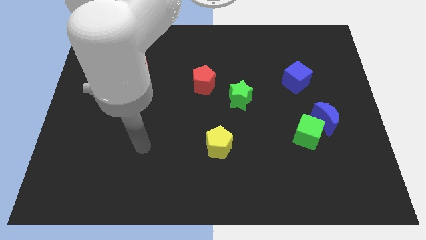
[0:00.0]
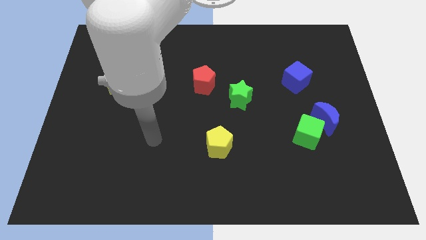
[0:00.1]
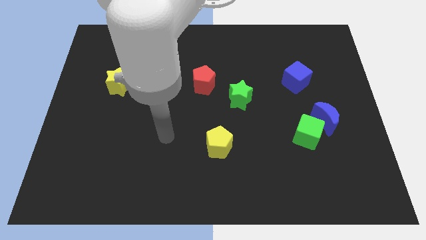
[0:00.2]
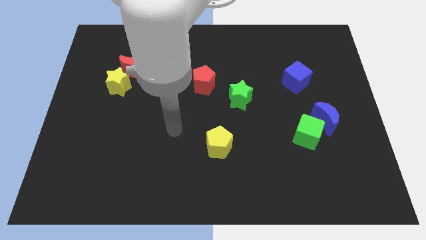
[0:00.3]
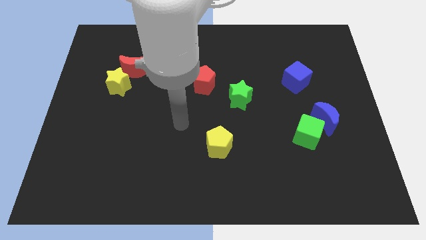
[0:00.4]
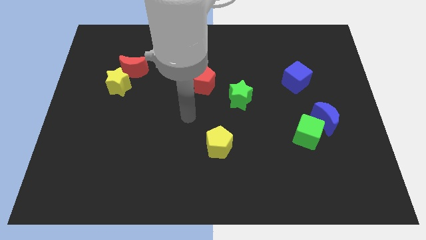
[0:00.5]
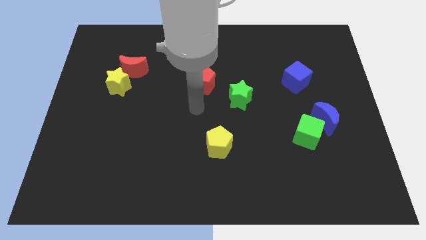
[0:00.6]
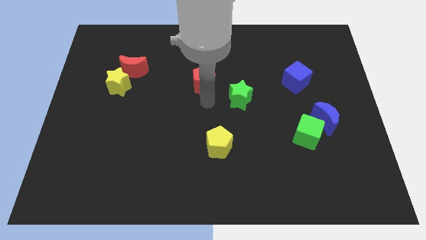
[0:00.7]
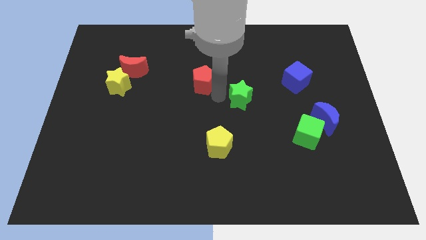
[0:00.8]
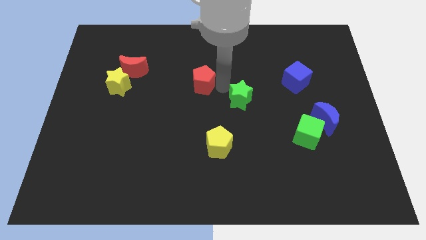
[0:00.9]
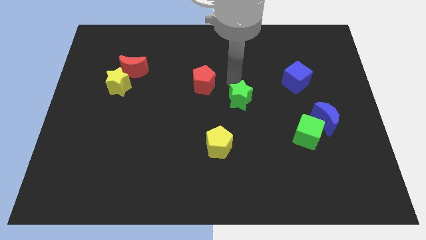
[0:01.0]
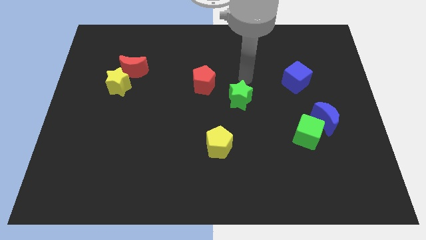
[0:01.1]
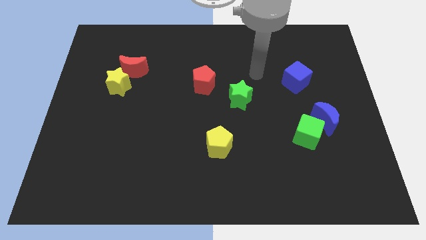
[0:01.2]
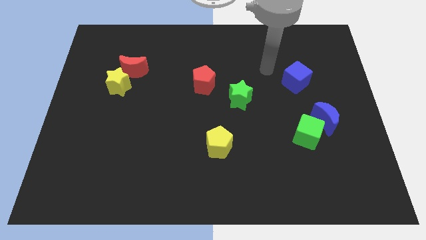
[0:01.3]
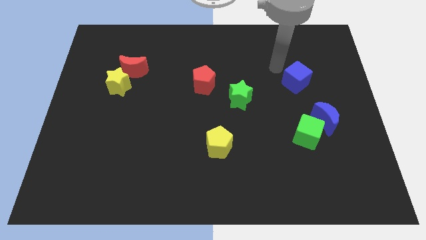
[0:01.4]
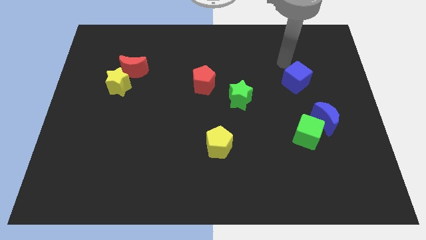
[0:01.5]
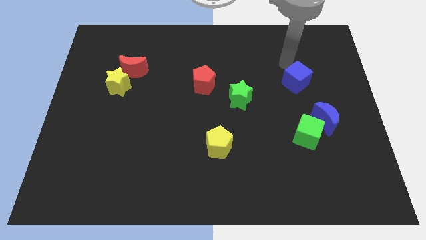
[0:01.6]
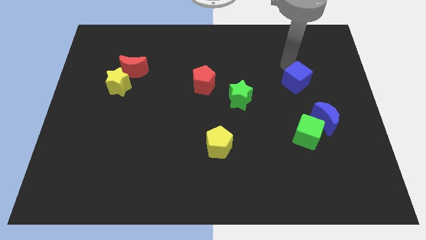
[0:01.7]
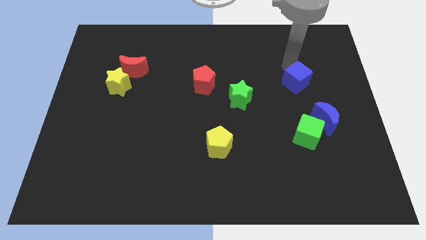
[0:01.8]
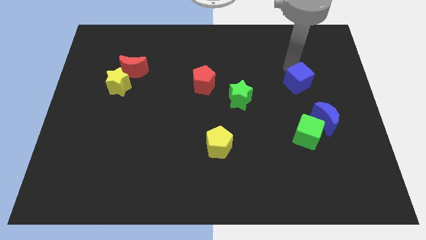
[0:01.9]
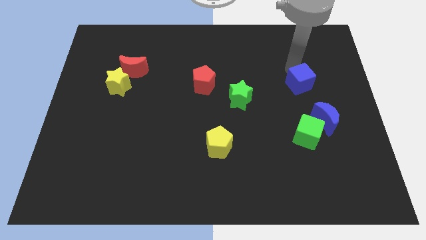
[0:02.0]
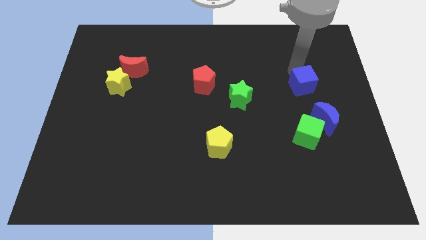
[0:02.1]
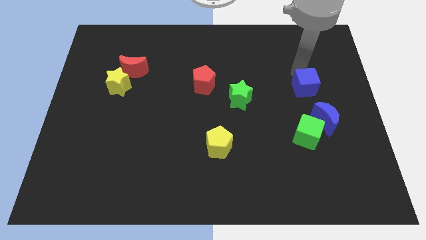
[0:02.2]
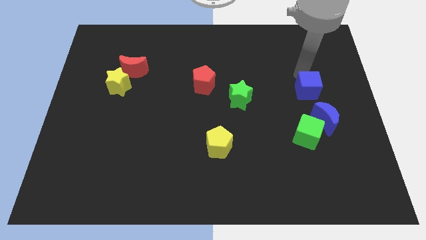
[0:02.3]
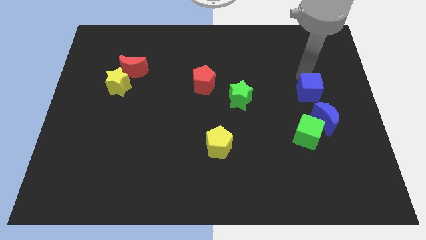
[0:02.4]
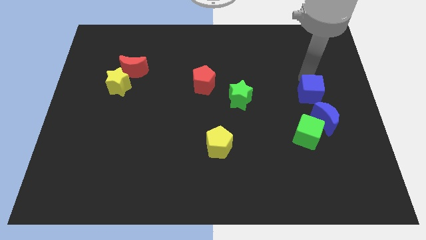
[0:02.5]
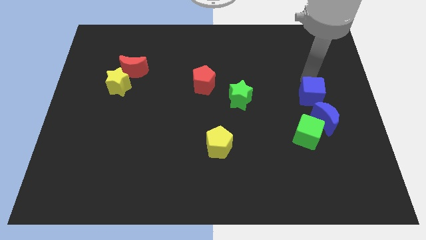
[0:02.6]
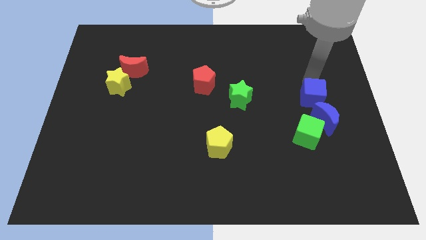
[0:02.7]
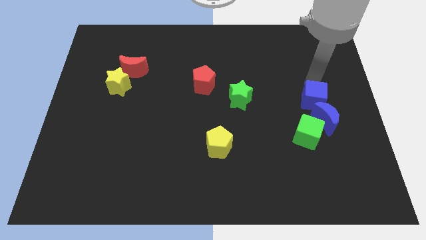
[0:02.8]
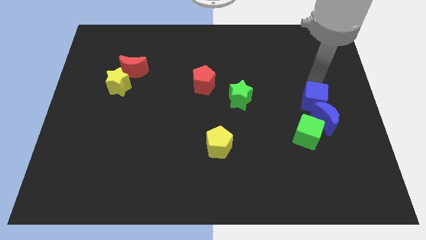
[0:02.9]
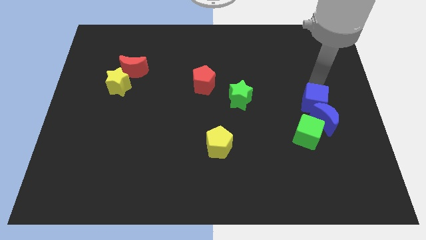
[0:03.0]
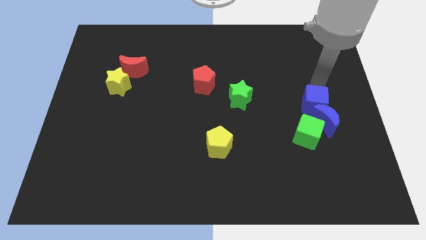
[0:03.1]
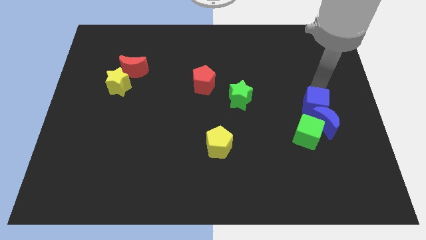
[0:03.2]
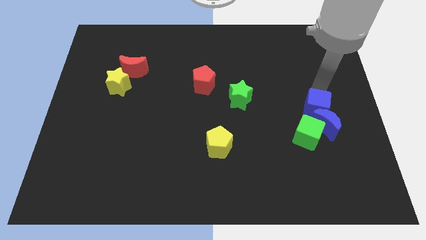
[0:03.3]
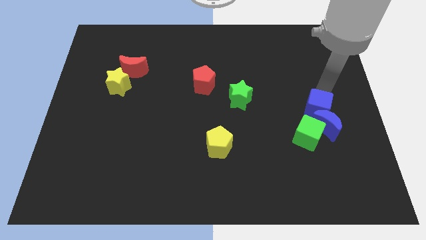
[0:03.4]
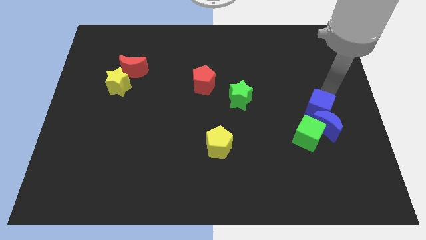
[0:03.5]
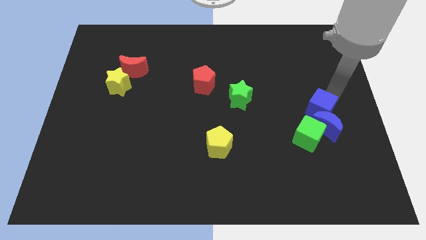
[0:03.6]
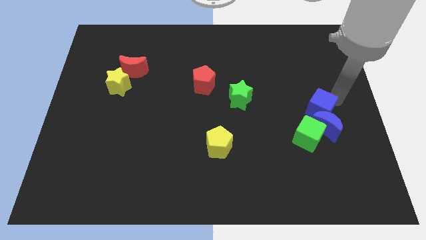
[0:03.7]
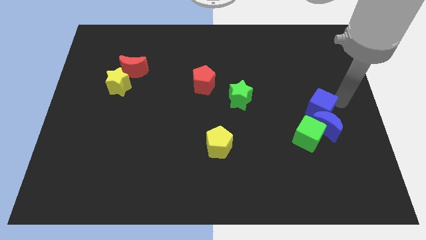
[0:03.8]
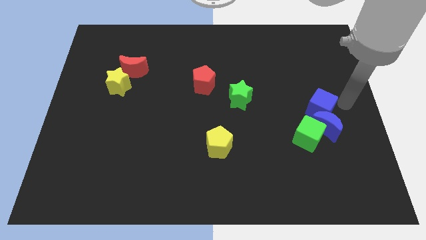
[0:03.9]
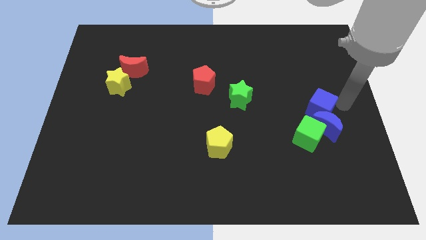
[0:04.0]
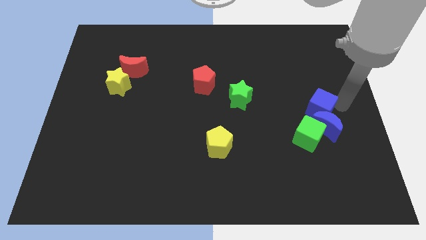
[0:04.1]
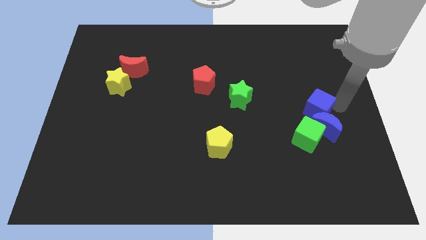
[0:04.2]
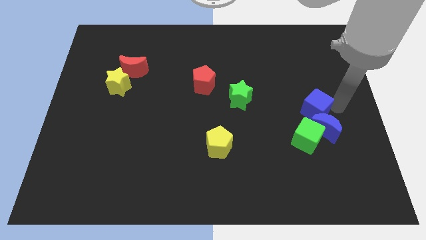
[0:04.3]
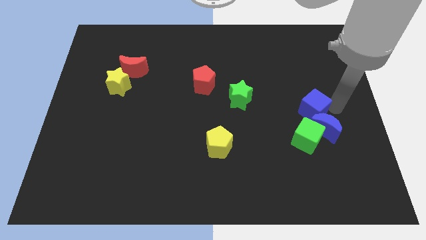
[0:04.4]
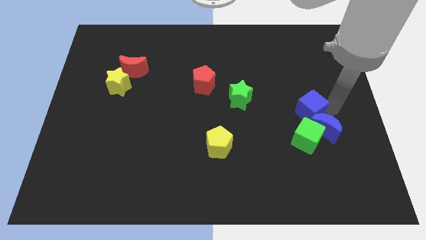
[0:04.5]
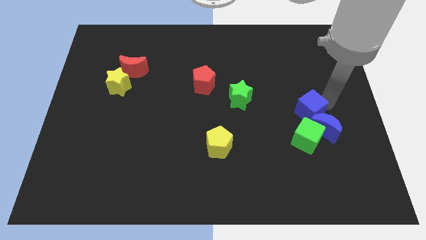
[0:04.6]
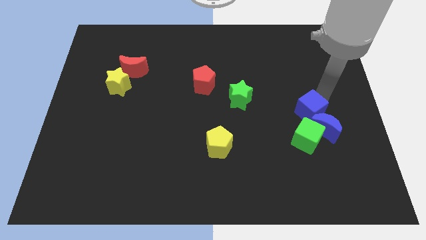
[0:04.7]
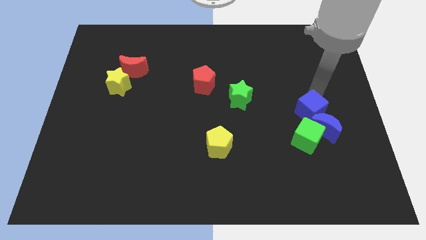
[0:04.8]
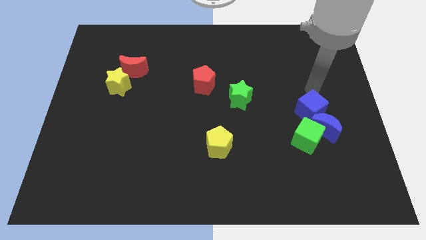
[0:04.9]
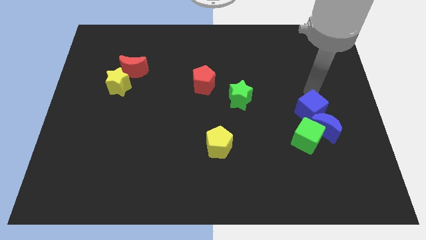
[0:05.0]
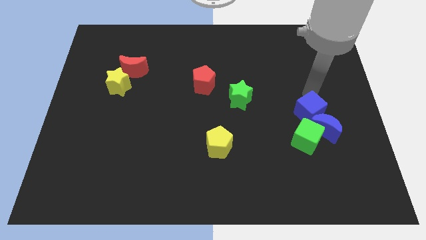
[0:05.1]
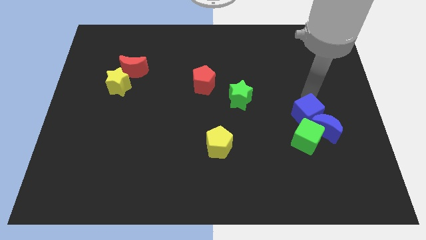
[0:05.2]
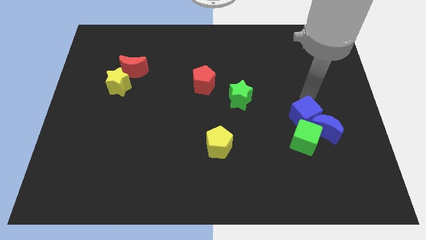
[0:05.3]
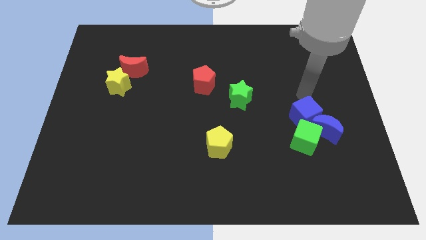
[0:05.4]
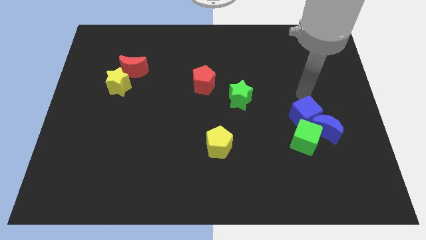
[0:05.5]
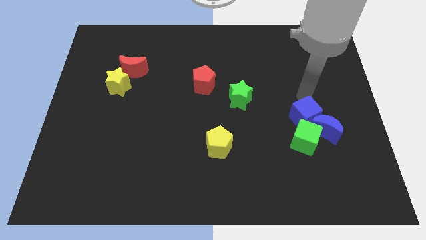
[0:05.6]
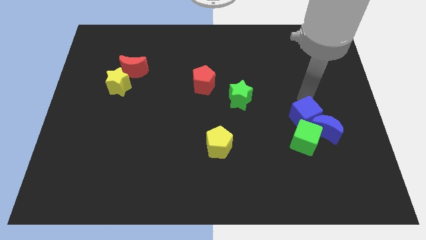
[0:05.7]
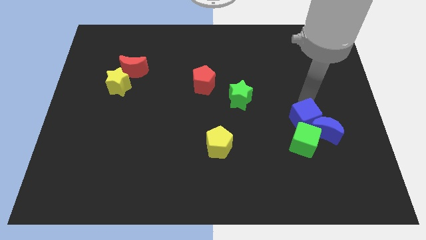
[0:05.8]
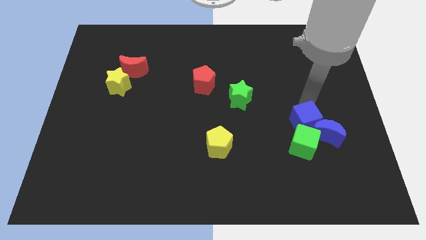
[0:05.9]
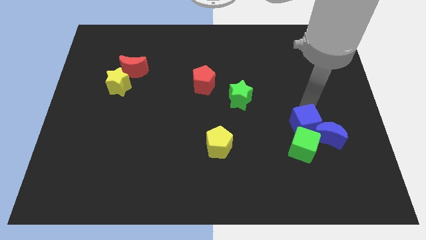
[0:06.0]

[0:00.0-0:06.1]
slide the blue cube next to the green cube

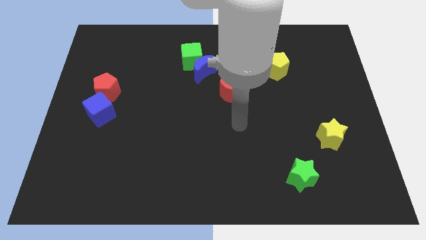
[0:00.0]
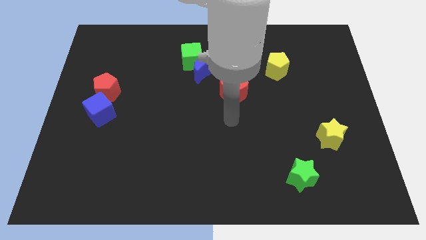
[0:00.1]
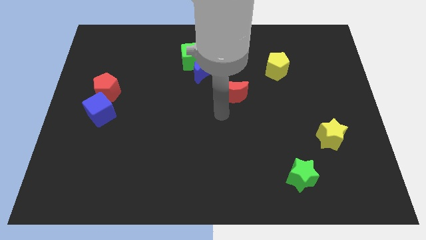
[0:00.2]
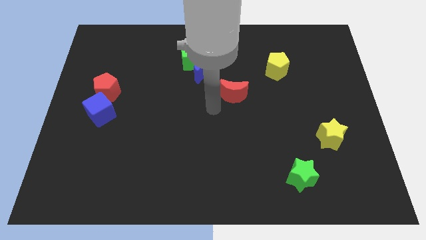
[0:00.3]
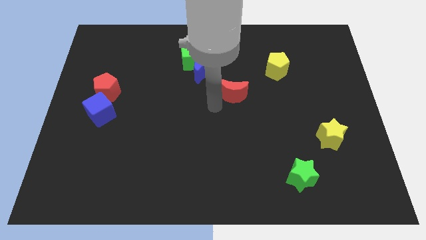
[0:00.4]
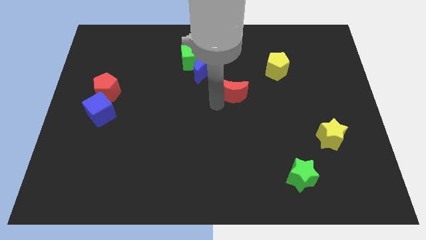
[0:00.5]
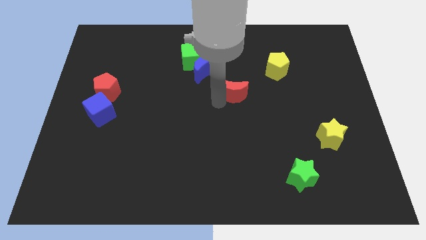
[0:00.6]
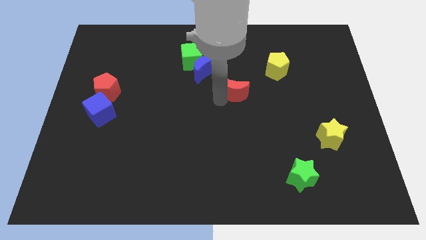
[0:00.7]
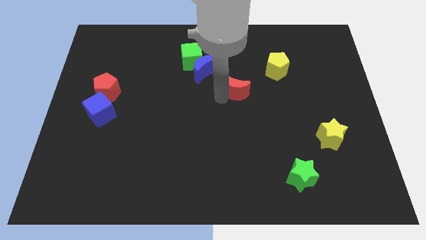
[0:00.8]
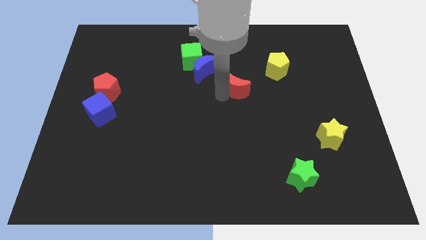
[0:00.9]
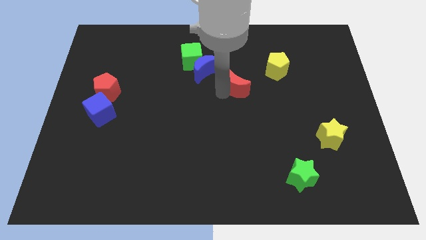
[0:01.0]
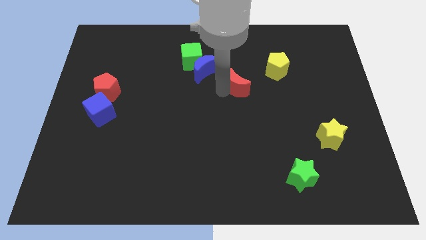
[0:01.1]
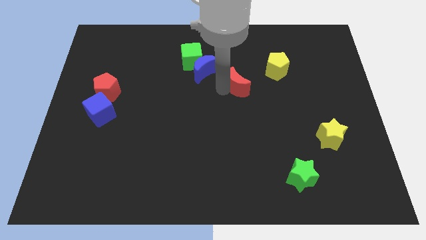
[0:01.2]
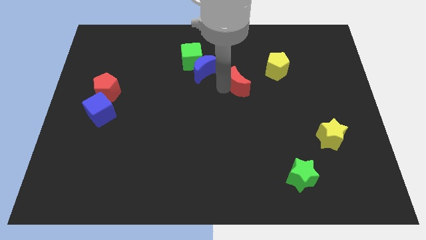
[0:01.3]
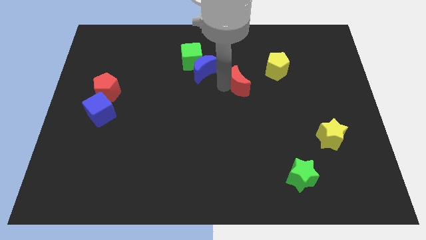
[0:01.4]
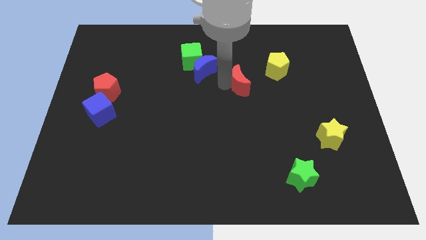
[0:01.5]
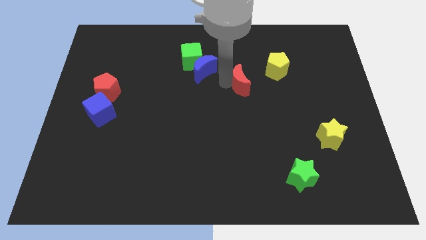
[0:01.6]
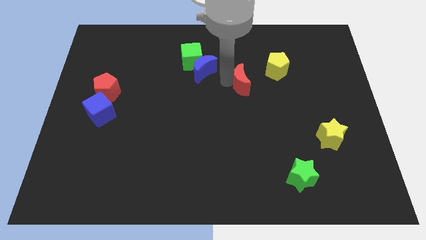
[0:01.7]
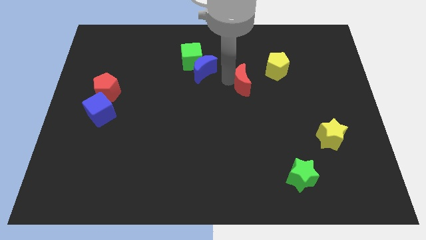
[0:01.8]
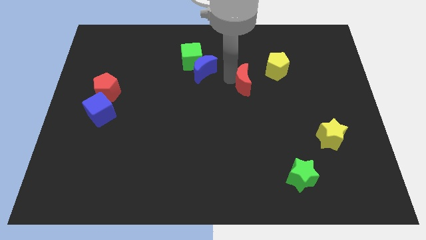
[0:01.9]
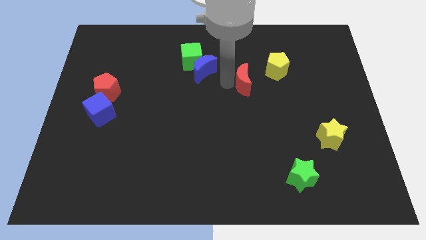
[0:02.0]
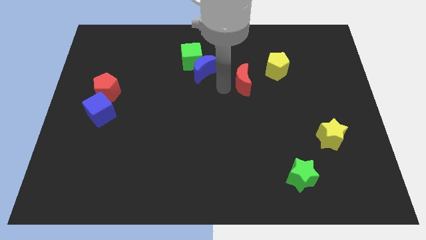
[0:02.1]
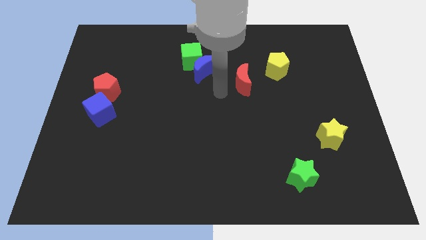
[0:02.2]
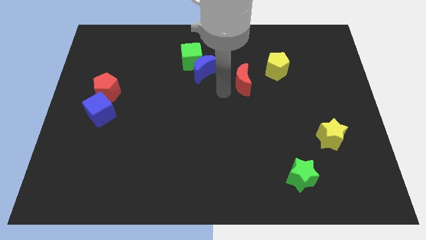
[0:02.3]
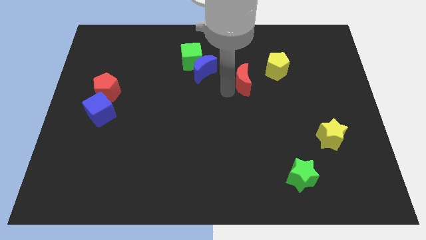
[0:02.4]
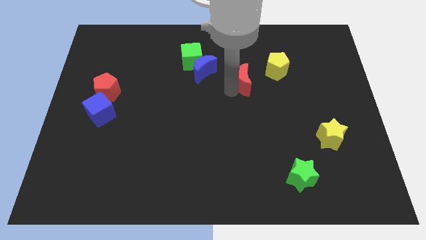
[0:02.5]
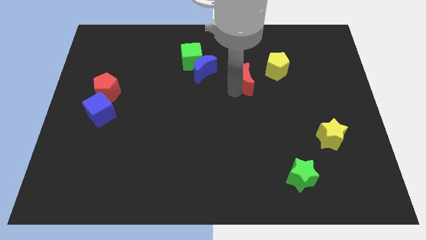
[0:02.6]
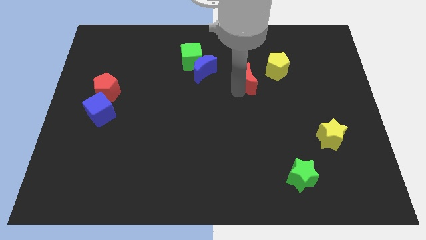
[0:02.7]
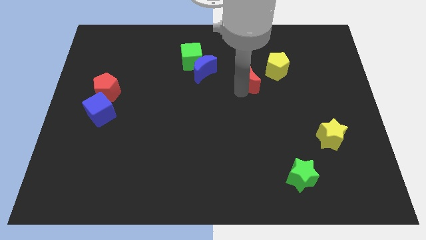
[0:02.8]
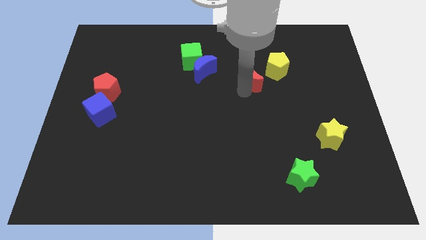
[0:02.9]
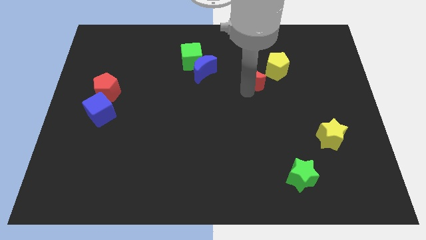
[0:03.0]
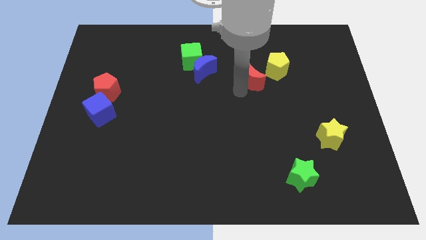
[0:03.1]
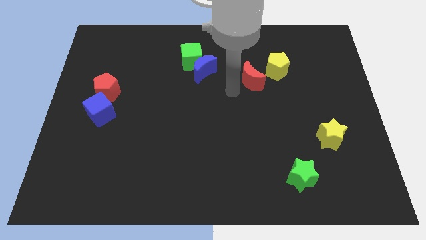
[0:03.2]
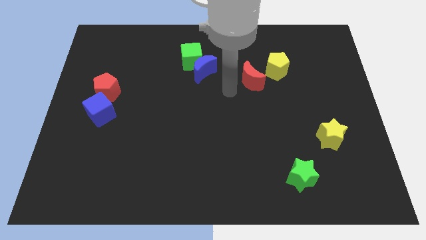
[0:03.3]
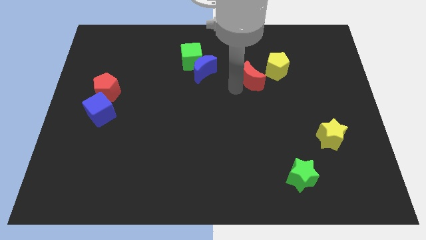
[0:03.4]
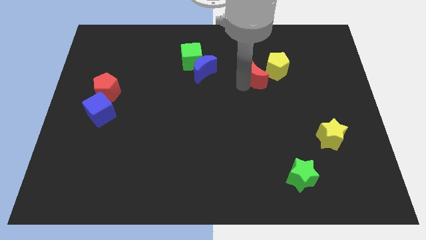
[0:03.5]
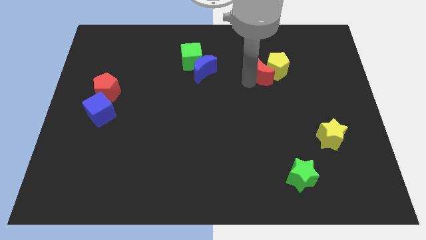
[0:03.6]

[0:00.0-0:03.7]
put the red moon next to the yellow pentagon
